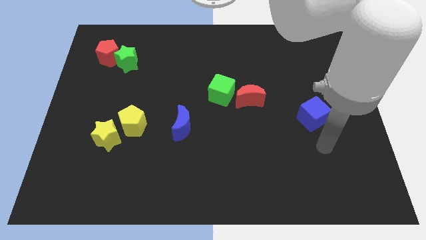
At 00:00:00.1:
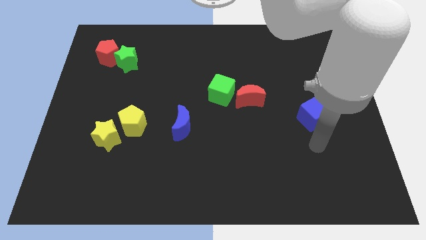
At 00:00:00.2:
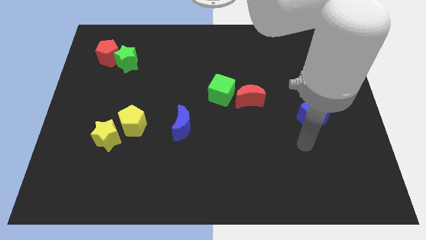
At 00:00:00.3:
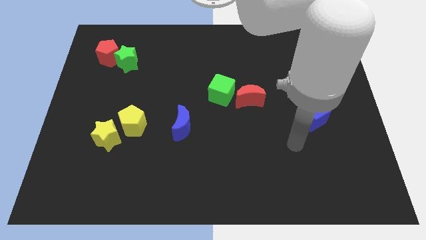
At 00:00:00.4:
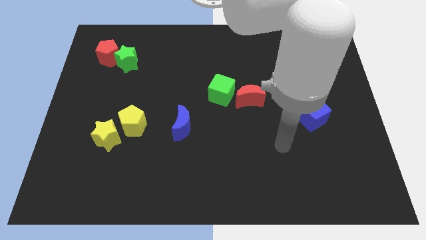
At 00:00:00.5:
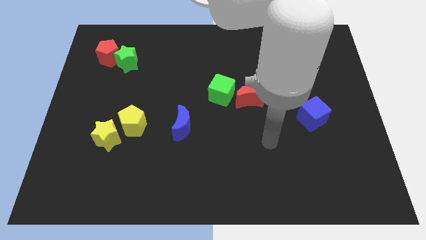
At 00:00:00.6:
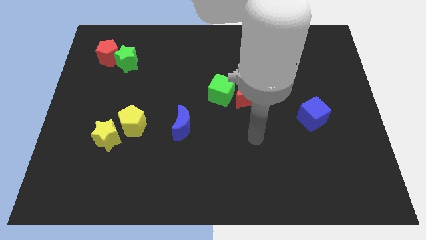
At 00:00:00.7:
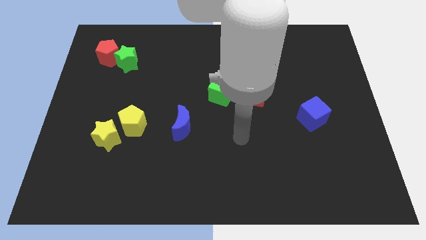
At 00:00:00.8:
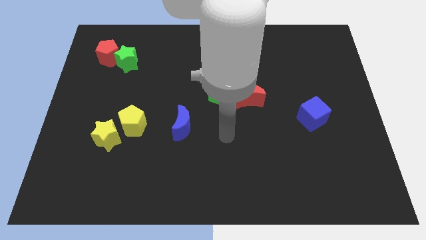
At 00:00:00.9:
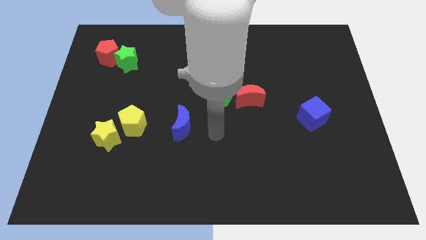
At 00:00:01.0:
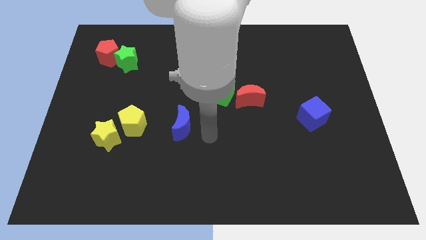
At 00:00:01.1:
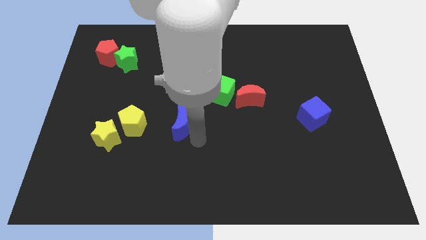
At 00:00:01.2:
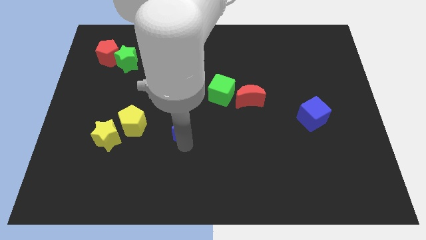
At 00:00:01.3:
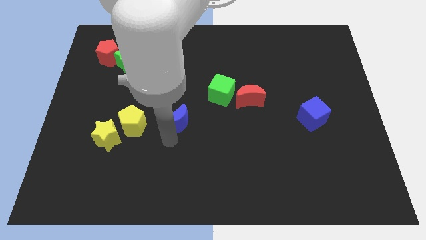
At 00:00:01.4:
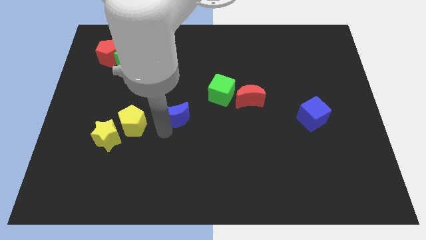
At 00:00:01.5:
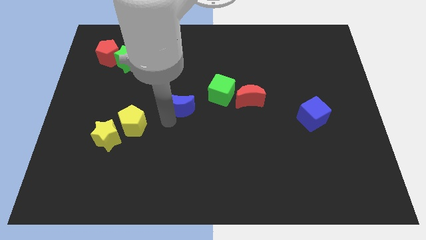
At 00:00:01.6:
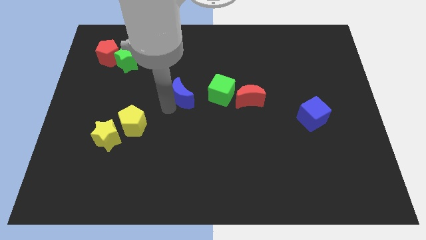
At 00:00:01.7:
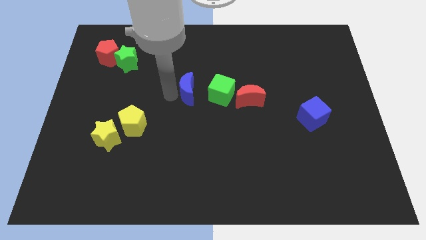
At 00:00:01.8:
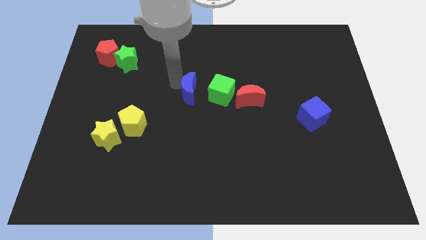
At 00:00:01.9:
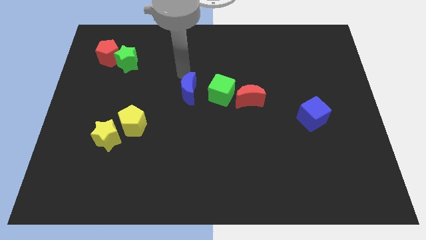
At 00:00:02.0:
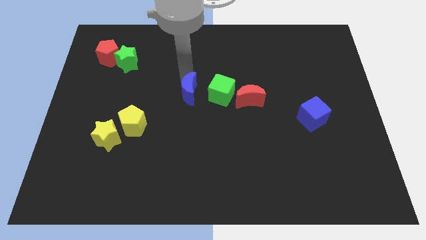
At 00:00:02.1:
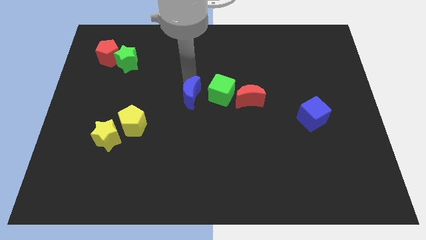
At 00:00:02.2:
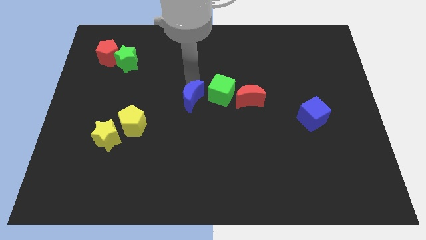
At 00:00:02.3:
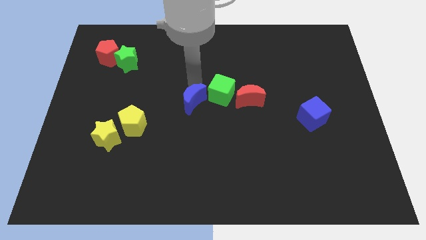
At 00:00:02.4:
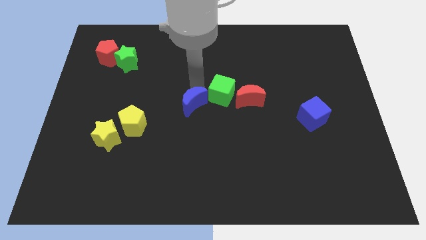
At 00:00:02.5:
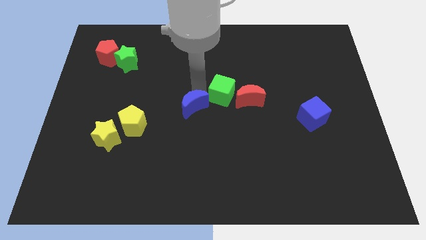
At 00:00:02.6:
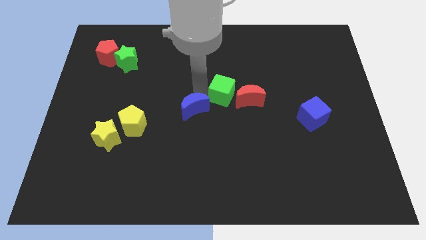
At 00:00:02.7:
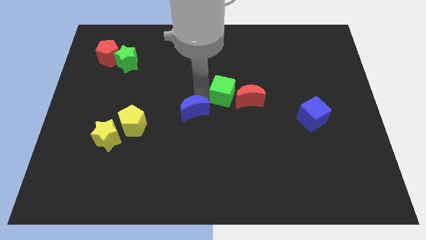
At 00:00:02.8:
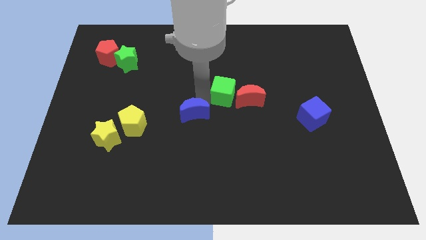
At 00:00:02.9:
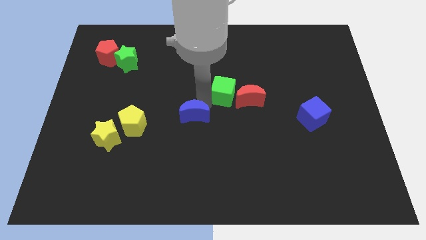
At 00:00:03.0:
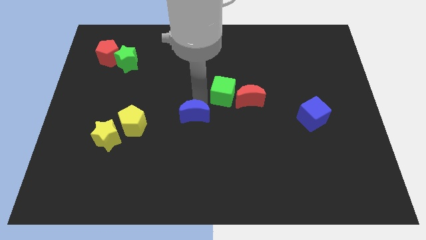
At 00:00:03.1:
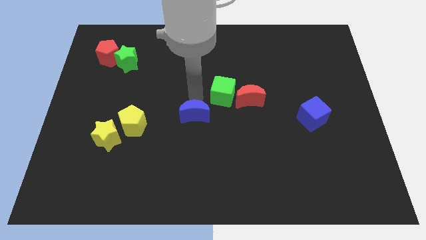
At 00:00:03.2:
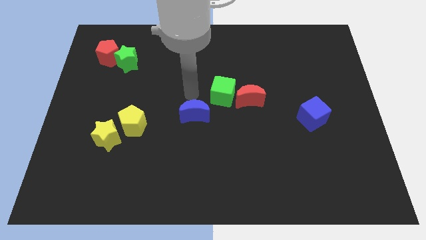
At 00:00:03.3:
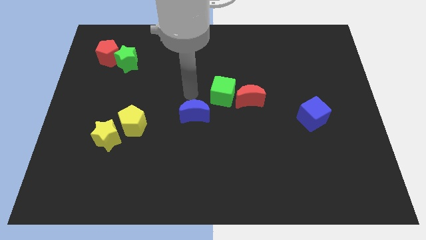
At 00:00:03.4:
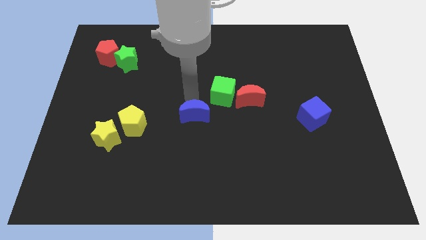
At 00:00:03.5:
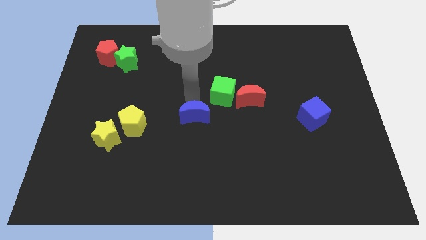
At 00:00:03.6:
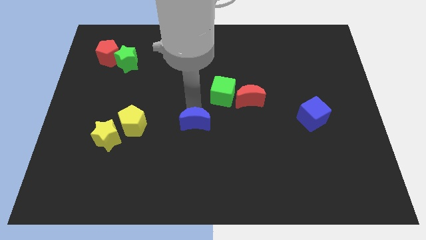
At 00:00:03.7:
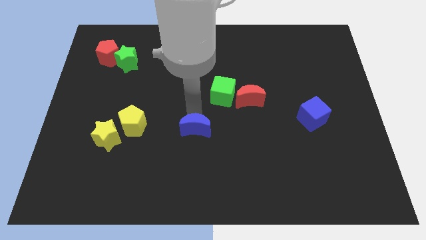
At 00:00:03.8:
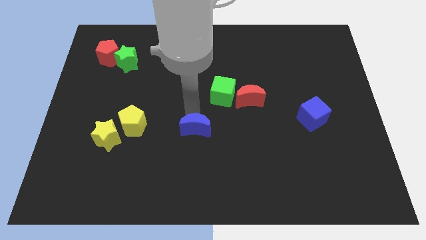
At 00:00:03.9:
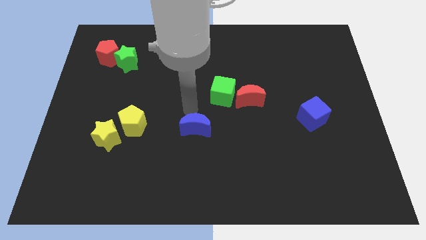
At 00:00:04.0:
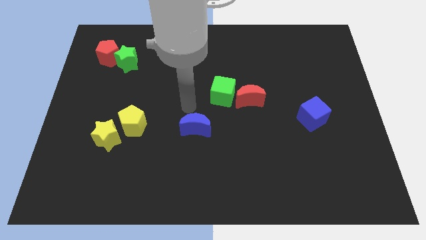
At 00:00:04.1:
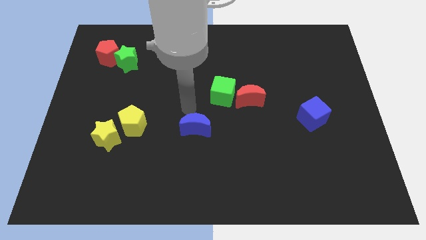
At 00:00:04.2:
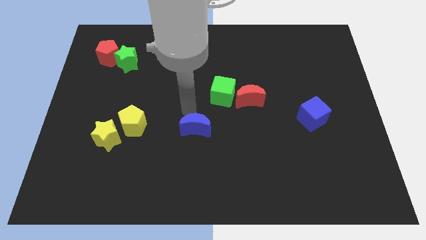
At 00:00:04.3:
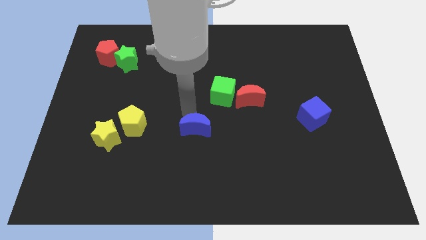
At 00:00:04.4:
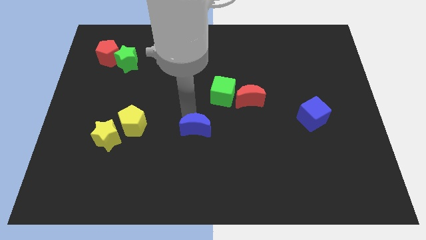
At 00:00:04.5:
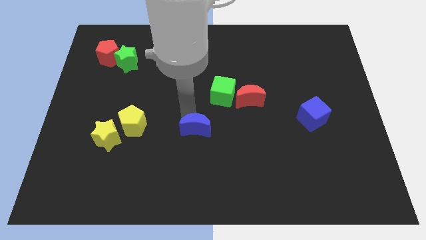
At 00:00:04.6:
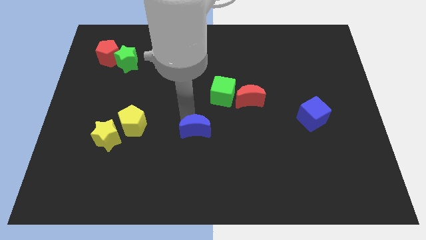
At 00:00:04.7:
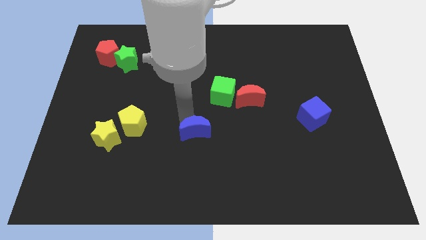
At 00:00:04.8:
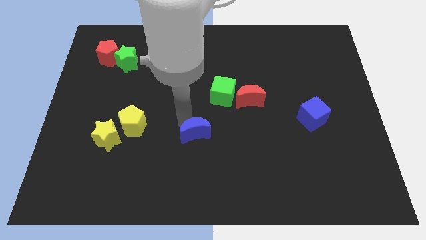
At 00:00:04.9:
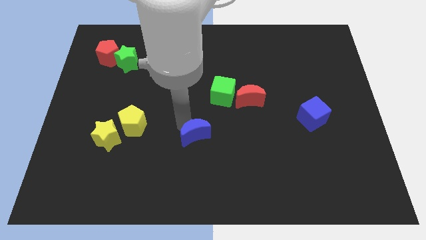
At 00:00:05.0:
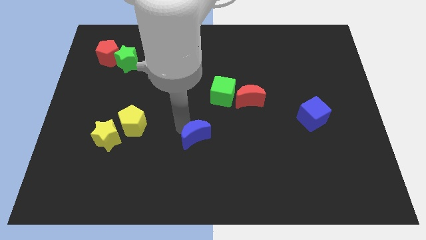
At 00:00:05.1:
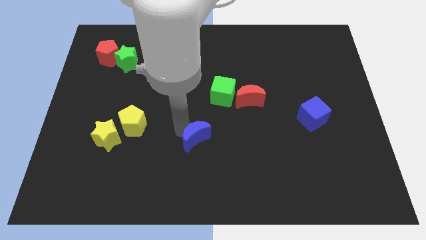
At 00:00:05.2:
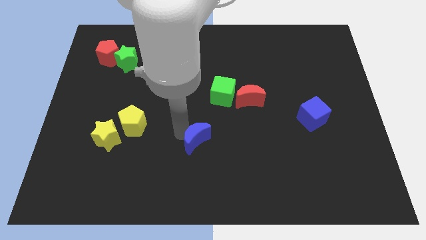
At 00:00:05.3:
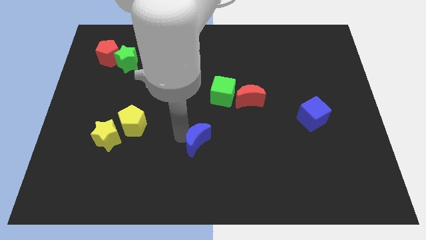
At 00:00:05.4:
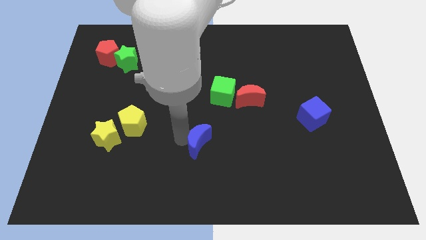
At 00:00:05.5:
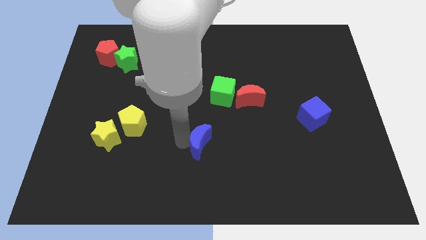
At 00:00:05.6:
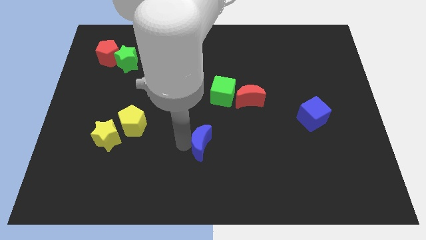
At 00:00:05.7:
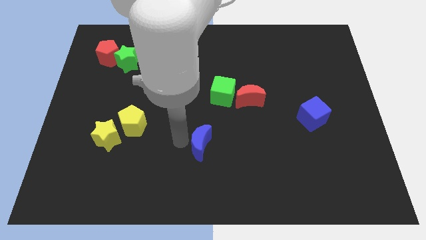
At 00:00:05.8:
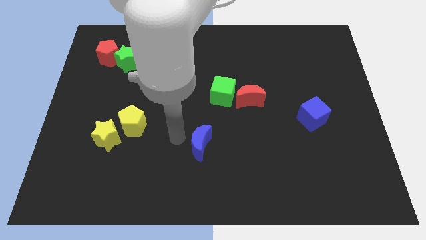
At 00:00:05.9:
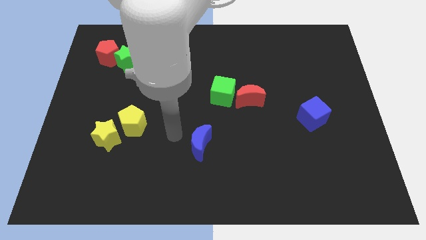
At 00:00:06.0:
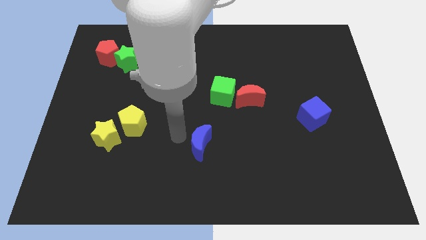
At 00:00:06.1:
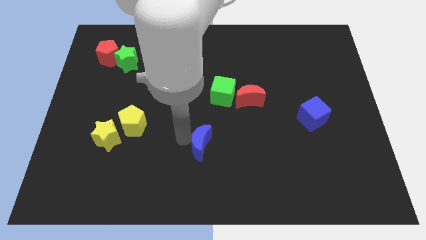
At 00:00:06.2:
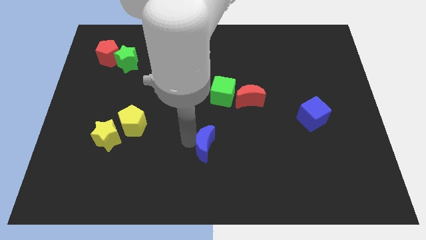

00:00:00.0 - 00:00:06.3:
move the blue moon a bit diagonally down and right

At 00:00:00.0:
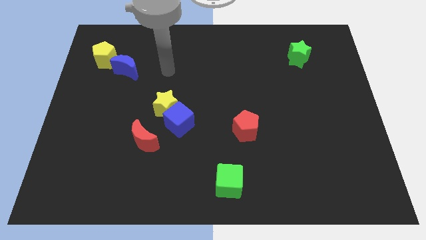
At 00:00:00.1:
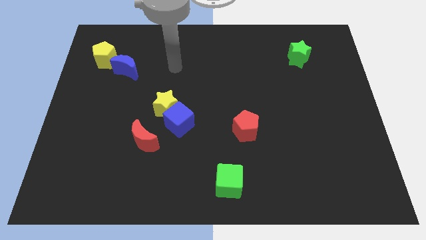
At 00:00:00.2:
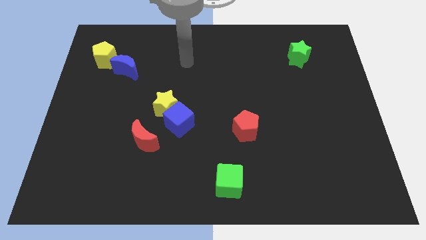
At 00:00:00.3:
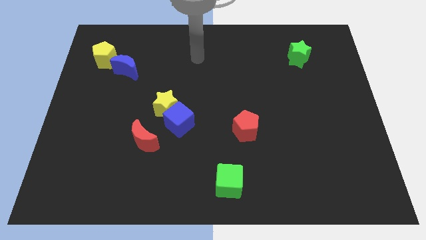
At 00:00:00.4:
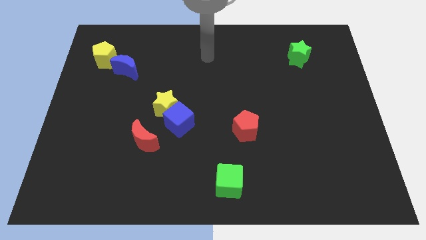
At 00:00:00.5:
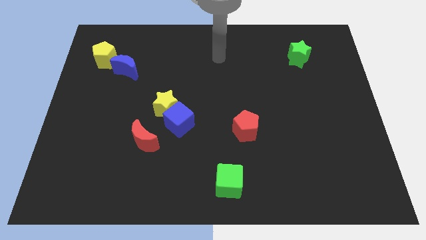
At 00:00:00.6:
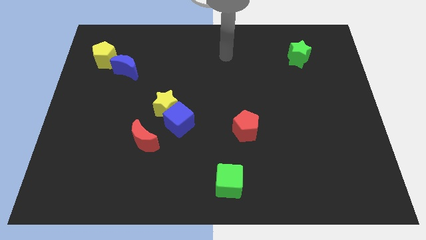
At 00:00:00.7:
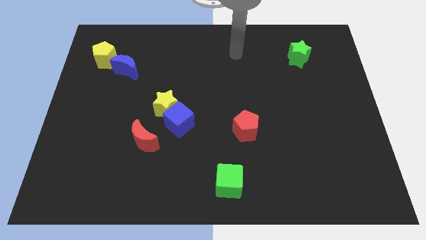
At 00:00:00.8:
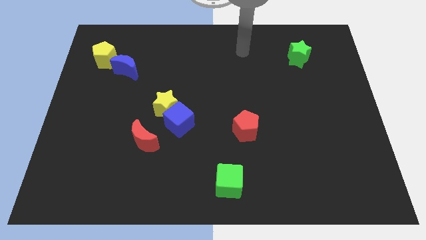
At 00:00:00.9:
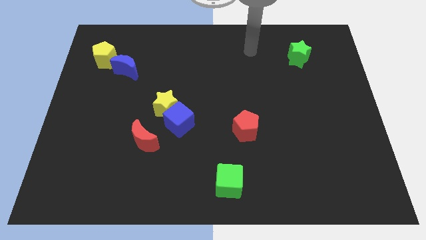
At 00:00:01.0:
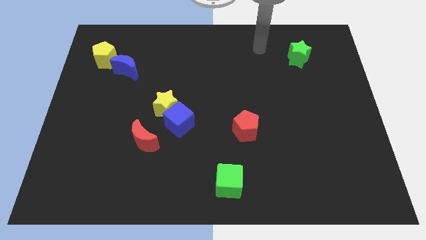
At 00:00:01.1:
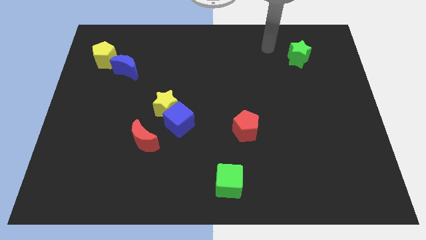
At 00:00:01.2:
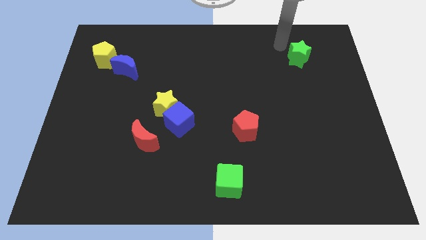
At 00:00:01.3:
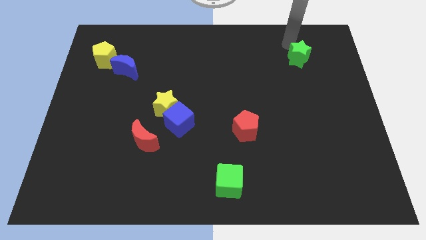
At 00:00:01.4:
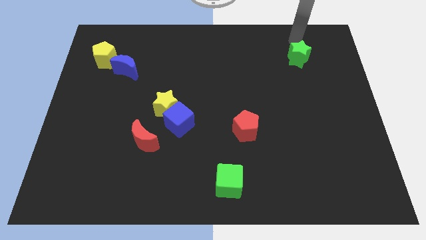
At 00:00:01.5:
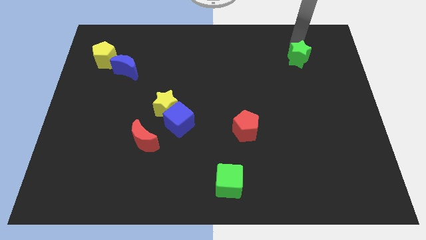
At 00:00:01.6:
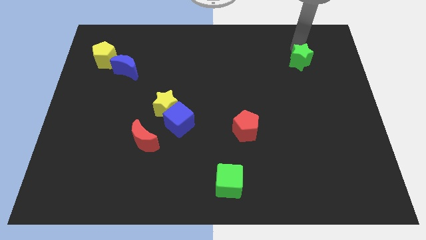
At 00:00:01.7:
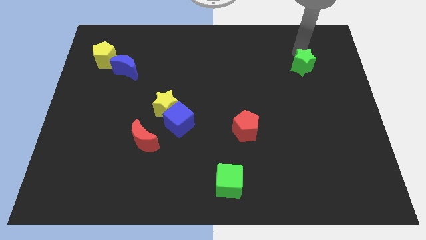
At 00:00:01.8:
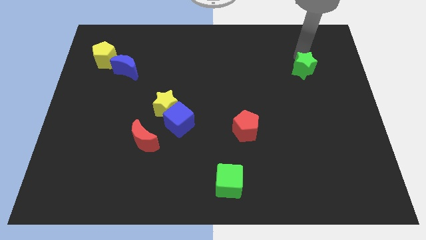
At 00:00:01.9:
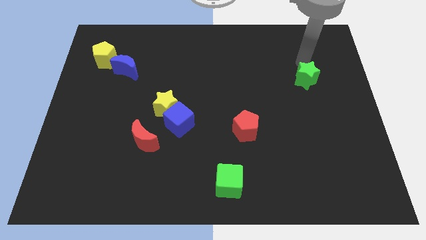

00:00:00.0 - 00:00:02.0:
push the green star a little down

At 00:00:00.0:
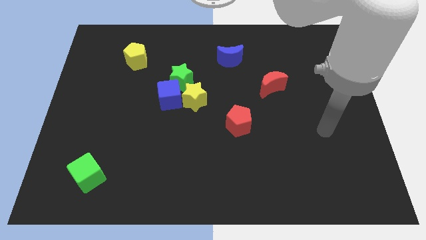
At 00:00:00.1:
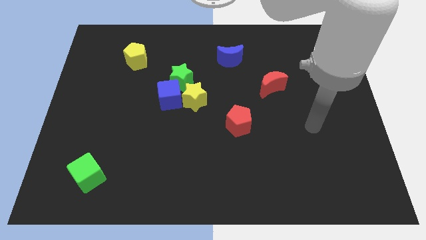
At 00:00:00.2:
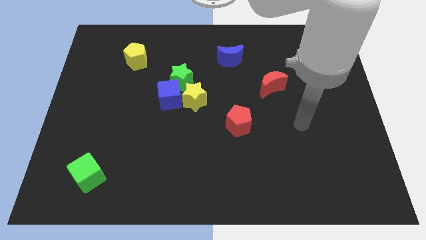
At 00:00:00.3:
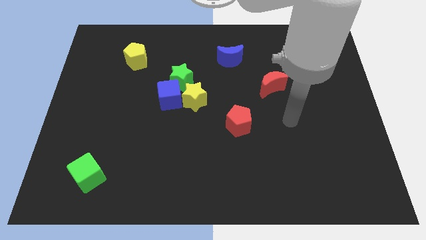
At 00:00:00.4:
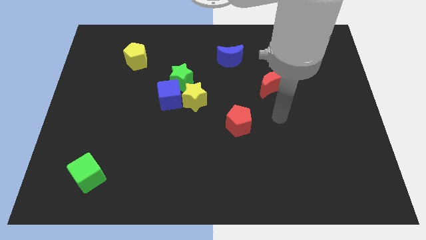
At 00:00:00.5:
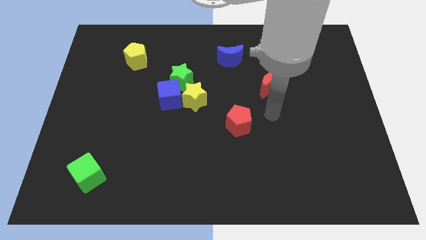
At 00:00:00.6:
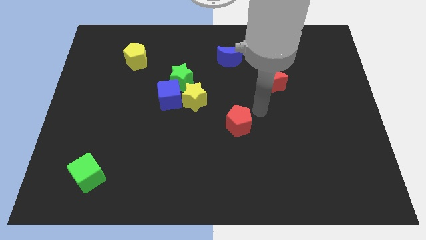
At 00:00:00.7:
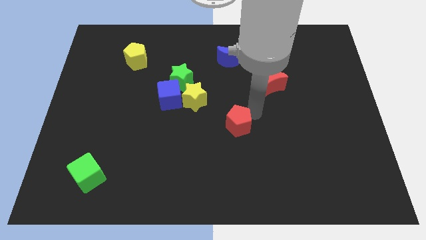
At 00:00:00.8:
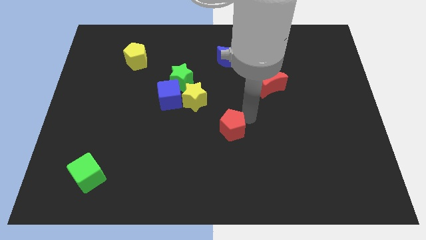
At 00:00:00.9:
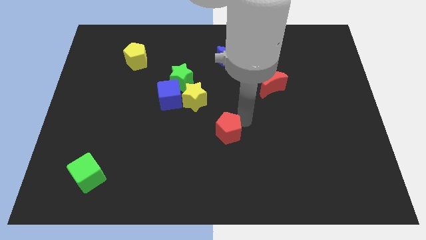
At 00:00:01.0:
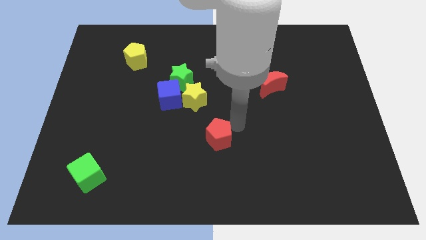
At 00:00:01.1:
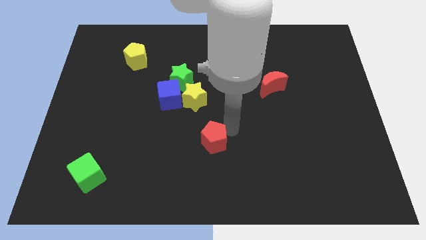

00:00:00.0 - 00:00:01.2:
slightly push the red pentagon diagonally down and left
